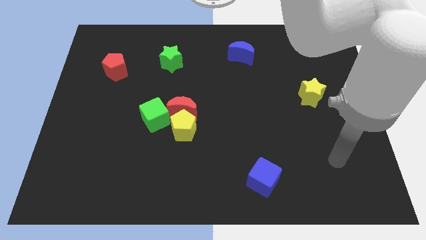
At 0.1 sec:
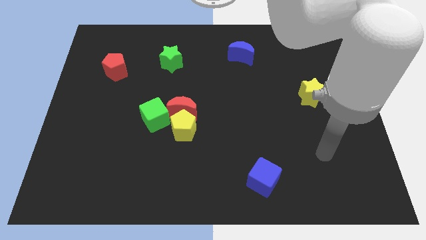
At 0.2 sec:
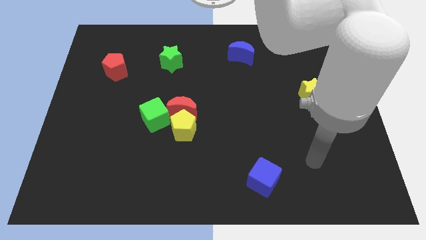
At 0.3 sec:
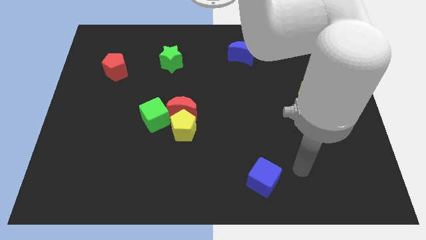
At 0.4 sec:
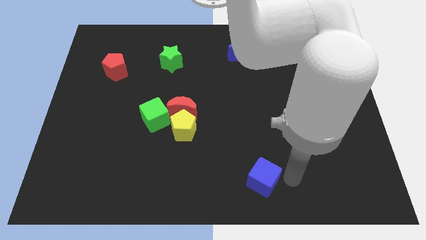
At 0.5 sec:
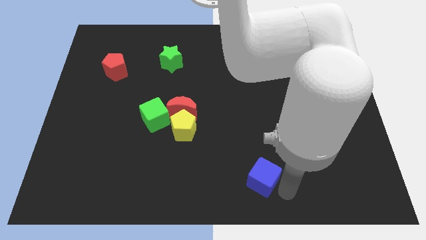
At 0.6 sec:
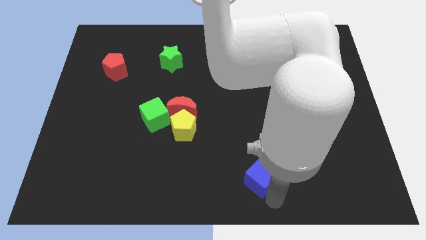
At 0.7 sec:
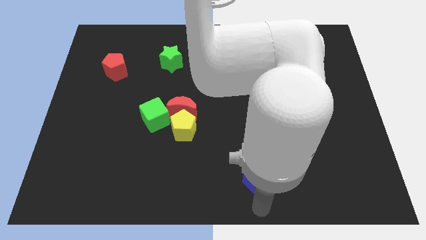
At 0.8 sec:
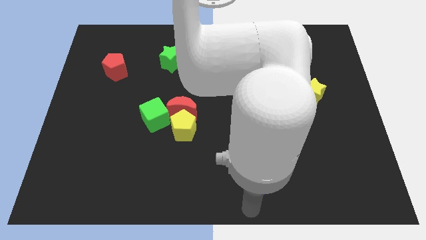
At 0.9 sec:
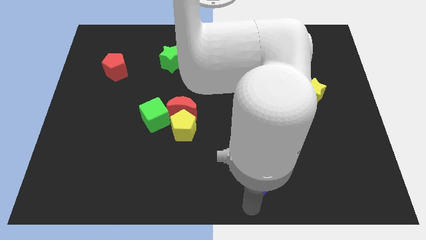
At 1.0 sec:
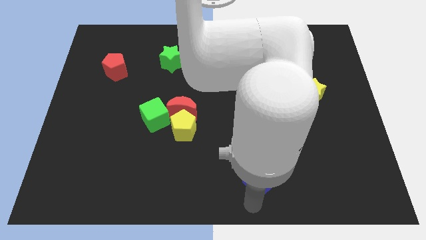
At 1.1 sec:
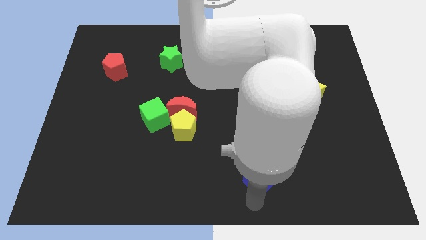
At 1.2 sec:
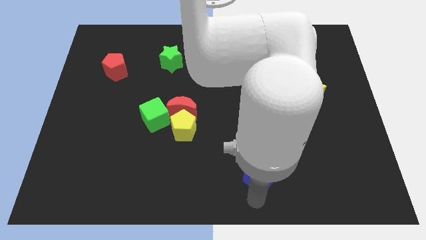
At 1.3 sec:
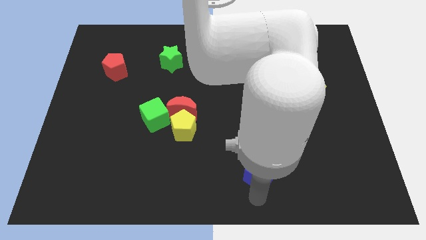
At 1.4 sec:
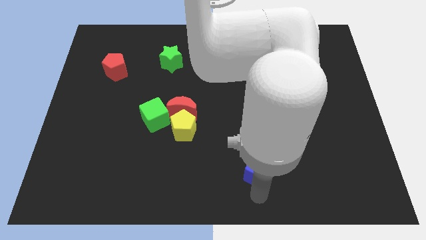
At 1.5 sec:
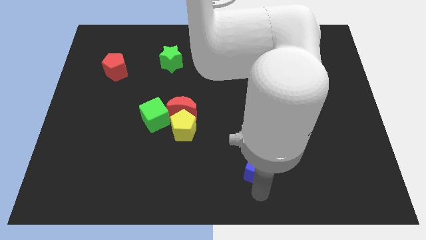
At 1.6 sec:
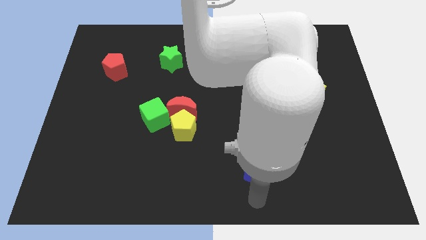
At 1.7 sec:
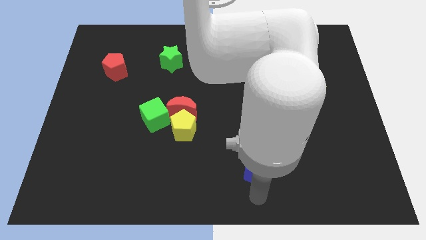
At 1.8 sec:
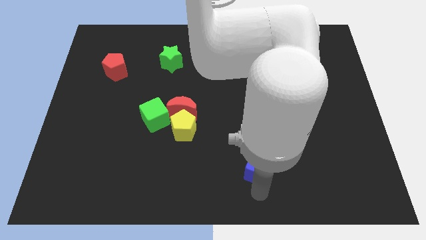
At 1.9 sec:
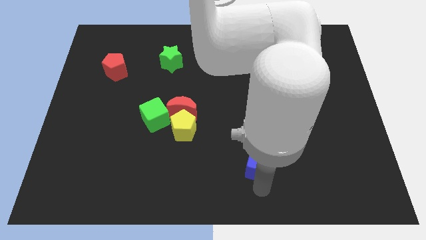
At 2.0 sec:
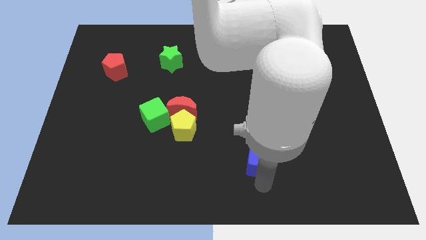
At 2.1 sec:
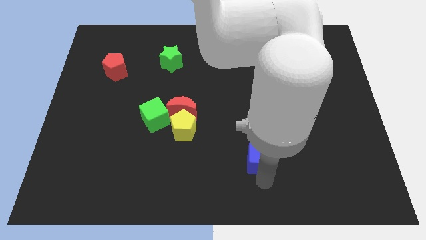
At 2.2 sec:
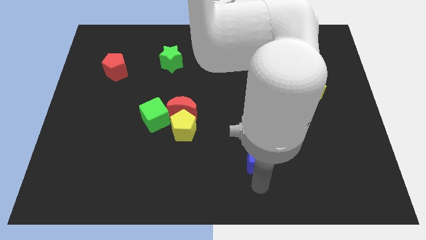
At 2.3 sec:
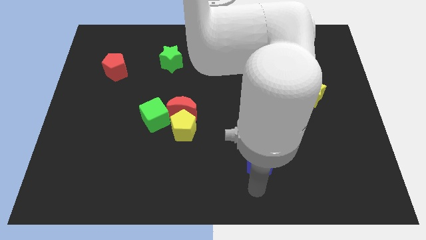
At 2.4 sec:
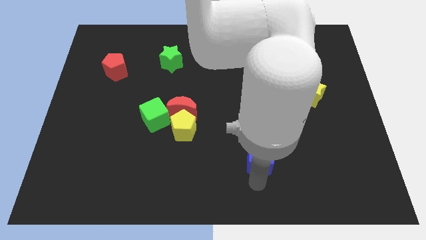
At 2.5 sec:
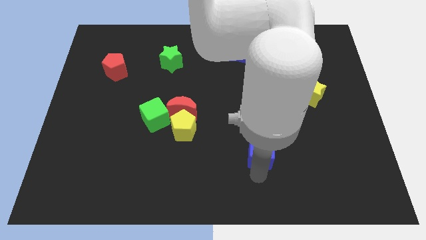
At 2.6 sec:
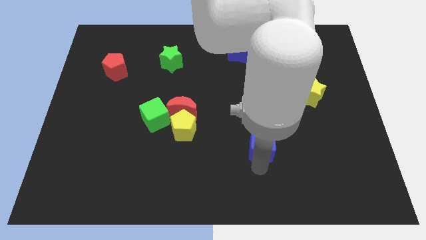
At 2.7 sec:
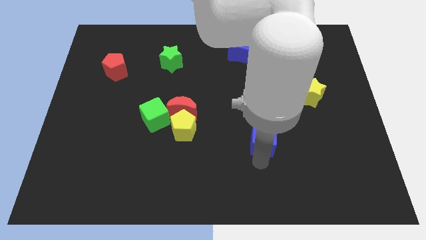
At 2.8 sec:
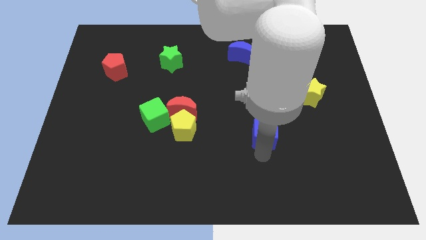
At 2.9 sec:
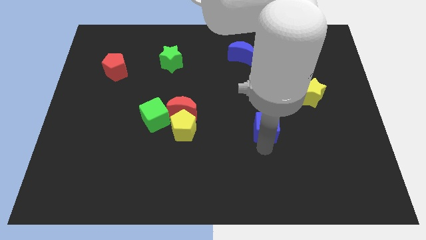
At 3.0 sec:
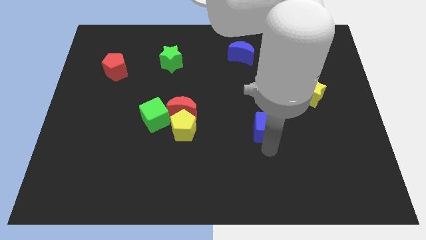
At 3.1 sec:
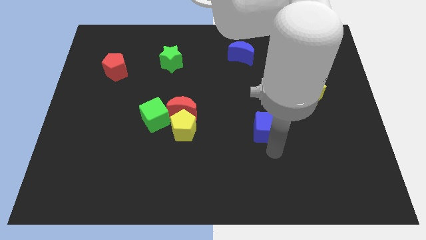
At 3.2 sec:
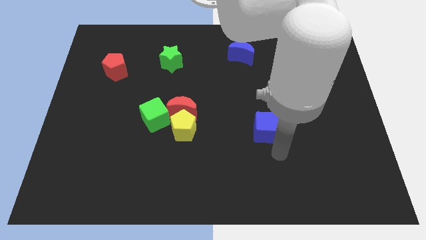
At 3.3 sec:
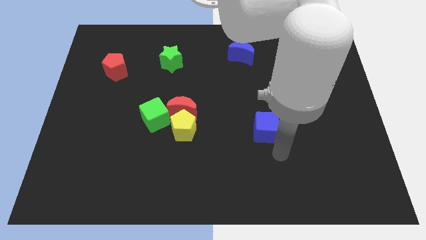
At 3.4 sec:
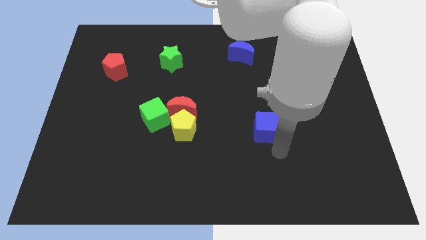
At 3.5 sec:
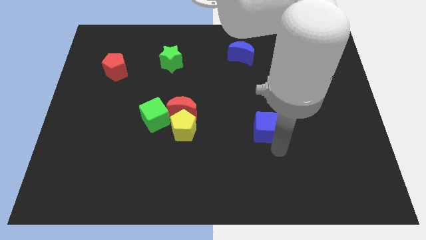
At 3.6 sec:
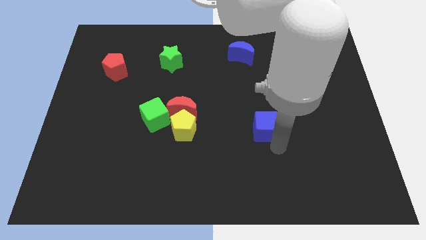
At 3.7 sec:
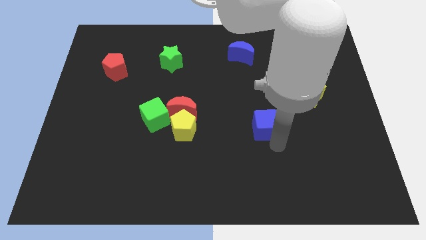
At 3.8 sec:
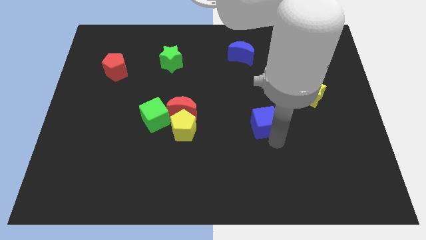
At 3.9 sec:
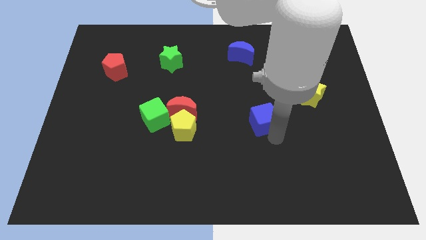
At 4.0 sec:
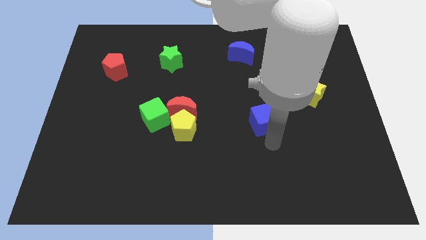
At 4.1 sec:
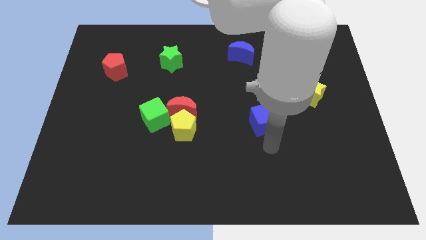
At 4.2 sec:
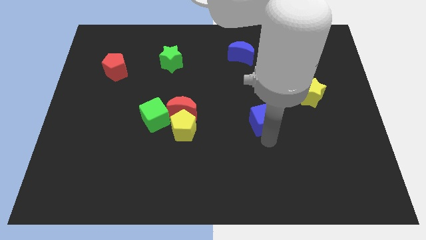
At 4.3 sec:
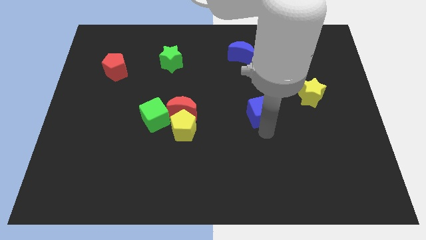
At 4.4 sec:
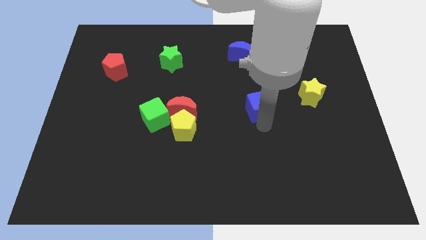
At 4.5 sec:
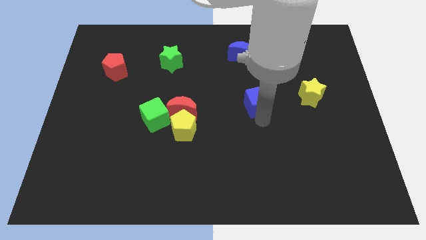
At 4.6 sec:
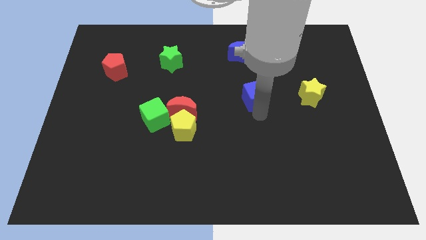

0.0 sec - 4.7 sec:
push the blue cube upwards

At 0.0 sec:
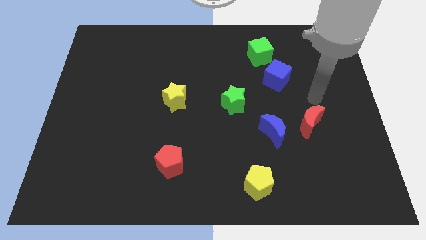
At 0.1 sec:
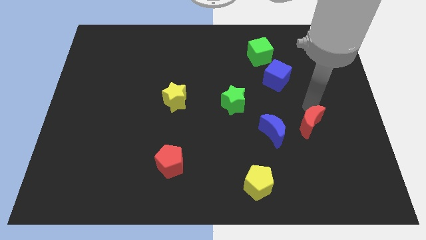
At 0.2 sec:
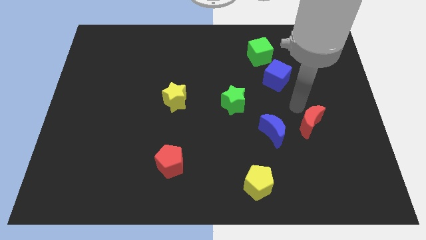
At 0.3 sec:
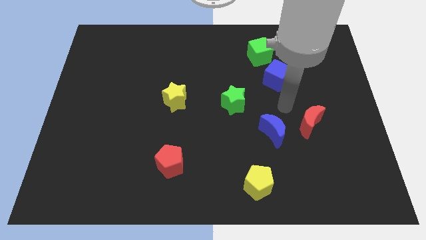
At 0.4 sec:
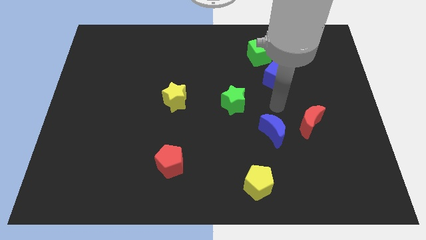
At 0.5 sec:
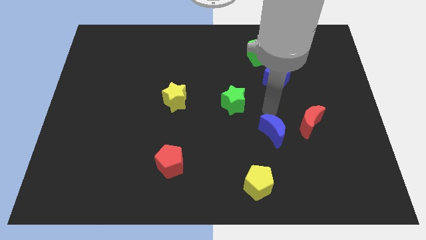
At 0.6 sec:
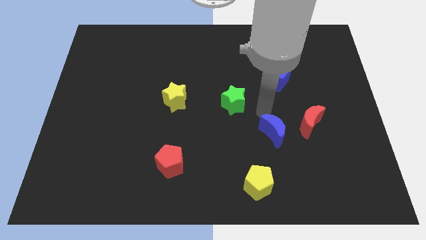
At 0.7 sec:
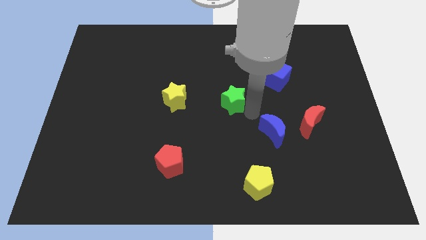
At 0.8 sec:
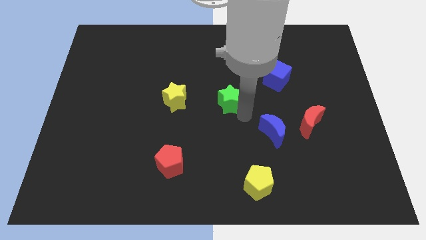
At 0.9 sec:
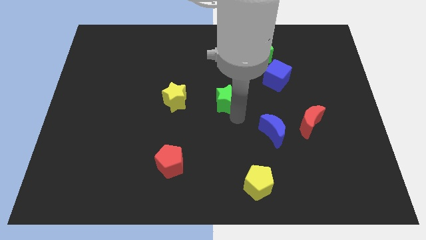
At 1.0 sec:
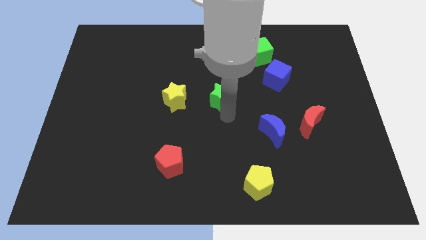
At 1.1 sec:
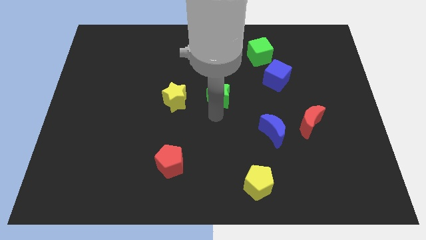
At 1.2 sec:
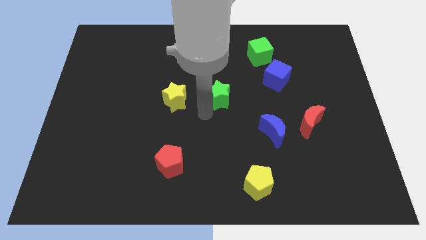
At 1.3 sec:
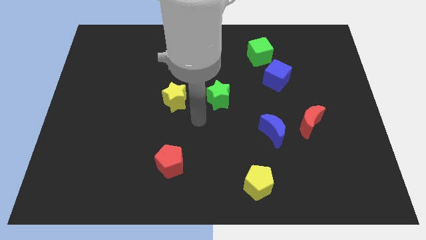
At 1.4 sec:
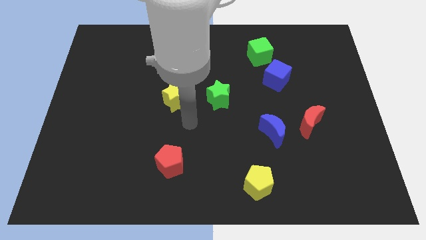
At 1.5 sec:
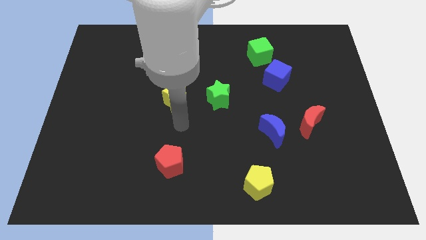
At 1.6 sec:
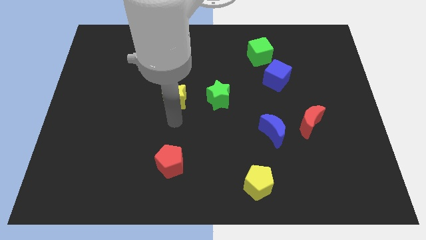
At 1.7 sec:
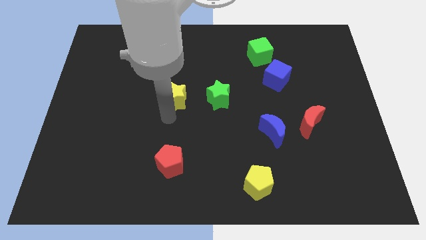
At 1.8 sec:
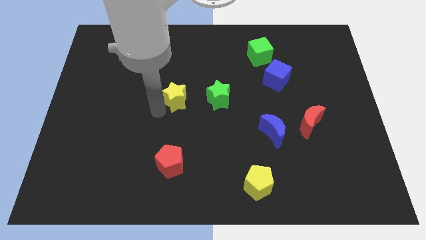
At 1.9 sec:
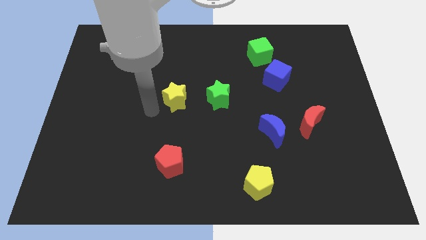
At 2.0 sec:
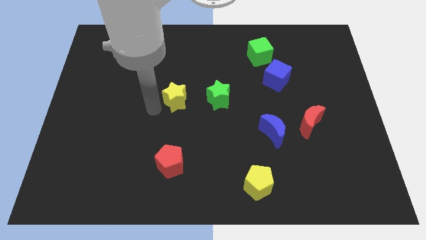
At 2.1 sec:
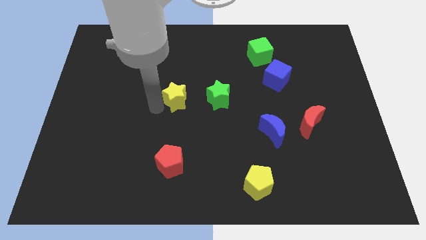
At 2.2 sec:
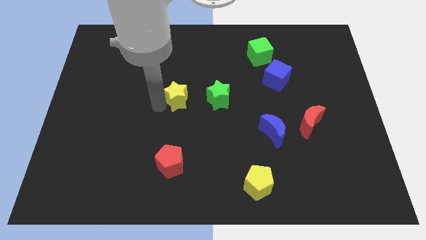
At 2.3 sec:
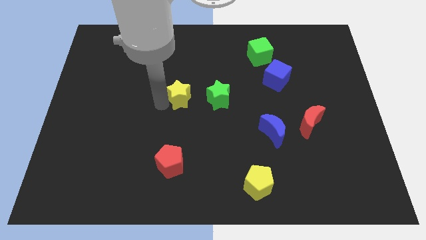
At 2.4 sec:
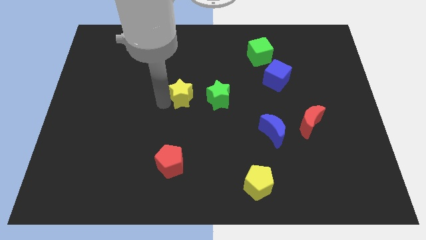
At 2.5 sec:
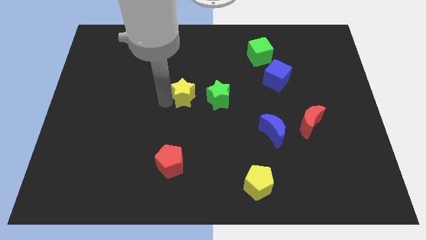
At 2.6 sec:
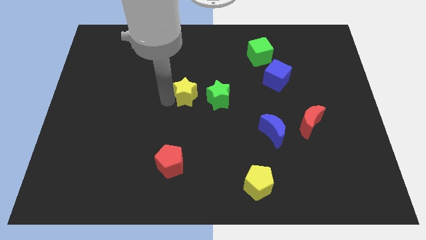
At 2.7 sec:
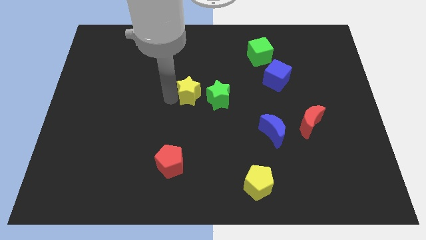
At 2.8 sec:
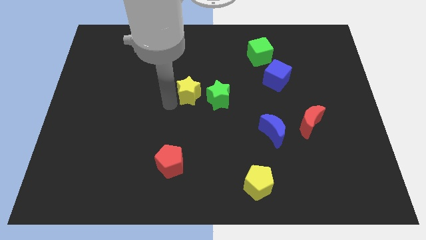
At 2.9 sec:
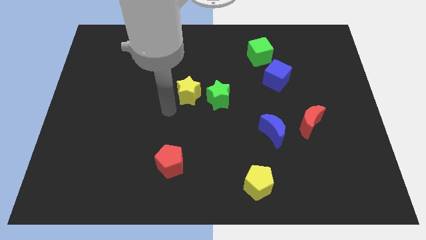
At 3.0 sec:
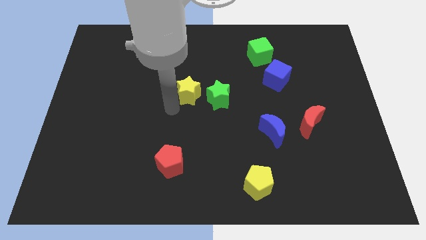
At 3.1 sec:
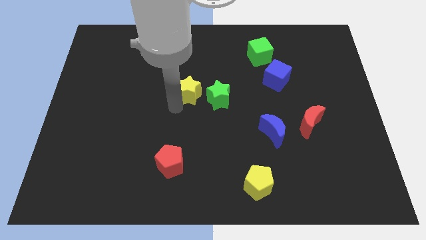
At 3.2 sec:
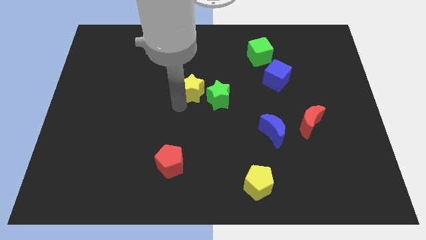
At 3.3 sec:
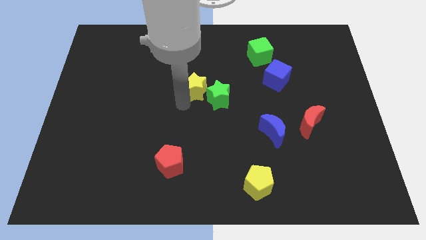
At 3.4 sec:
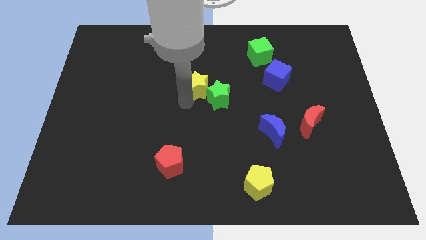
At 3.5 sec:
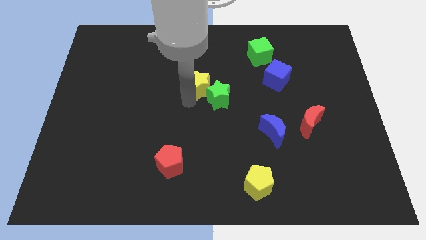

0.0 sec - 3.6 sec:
slightly slide the yellow star upwards and then to the right
